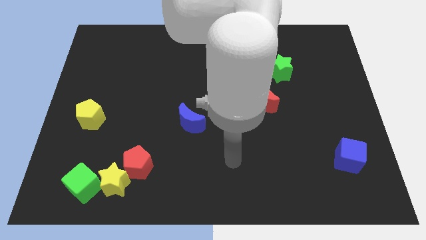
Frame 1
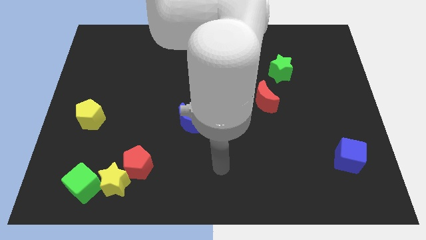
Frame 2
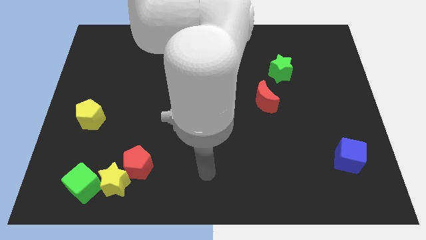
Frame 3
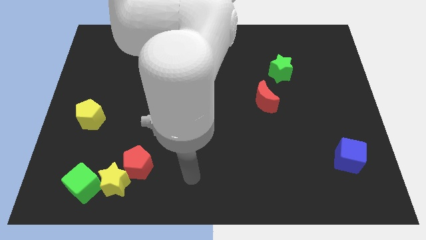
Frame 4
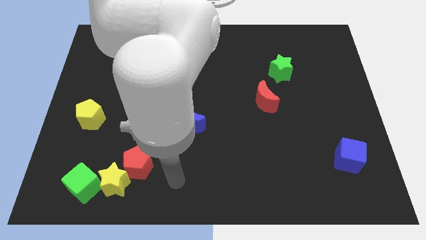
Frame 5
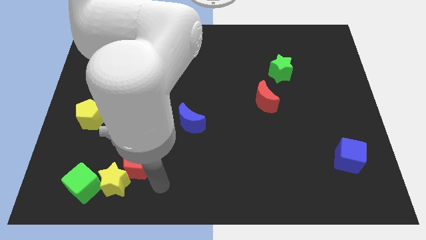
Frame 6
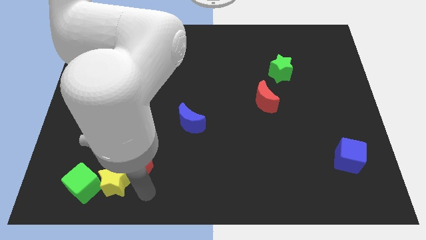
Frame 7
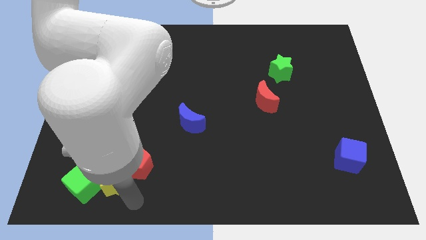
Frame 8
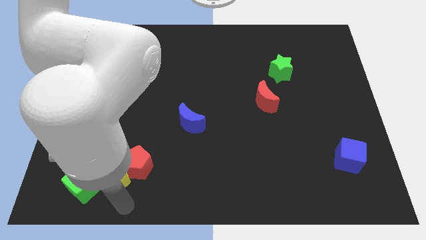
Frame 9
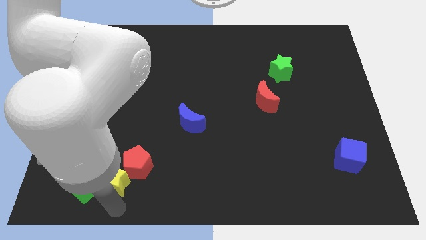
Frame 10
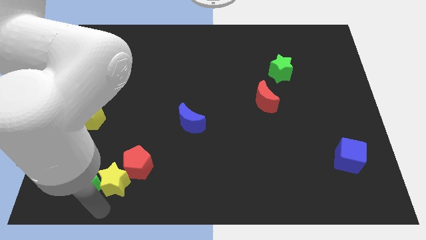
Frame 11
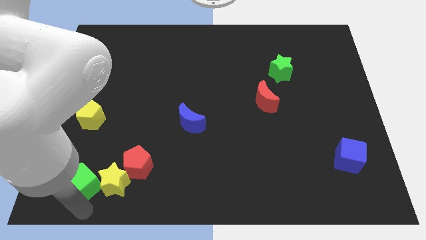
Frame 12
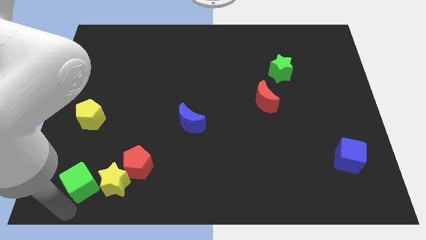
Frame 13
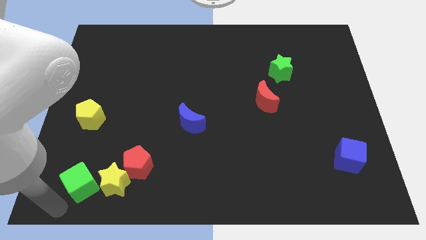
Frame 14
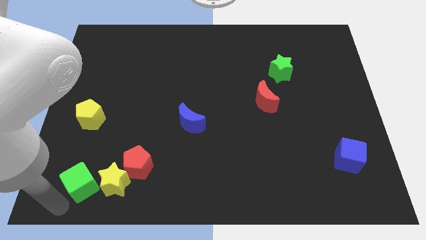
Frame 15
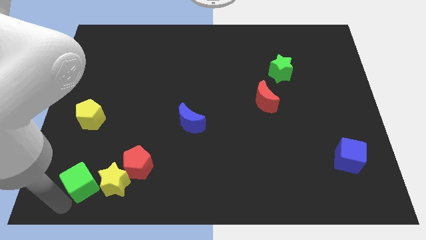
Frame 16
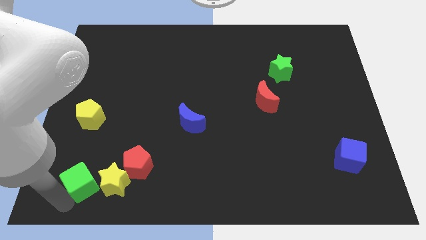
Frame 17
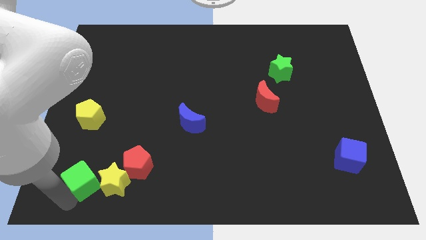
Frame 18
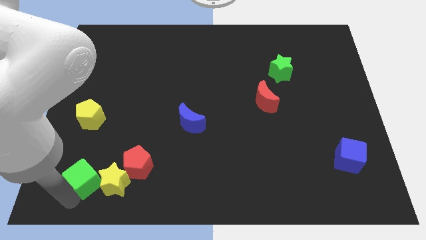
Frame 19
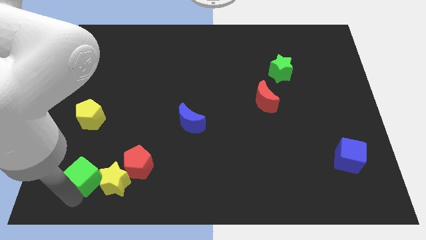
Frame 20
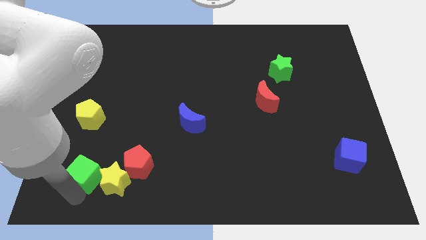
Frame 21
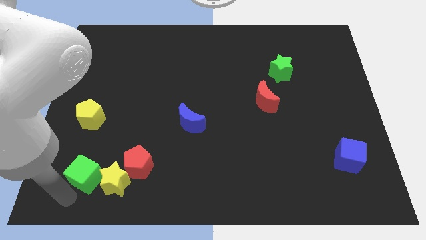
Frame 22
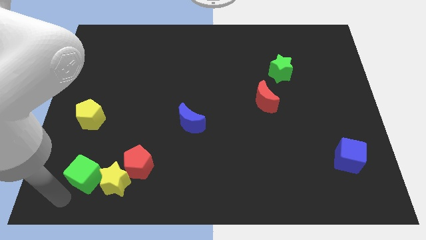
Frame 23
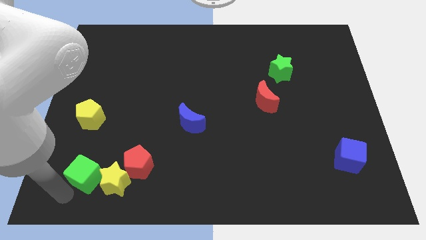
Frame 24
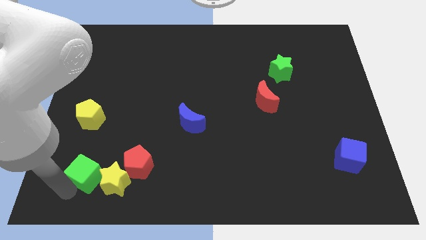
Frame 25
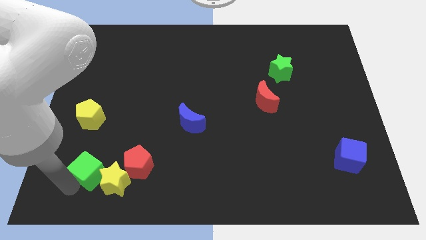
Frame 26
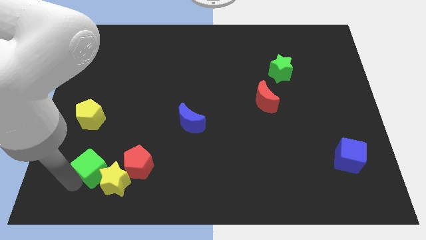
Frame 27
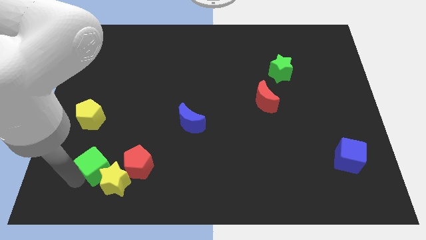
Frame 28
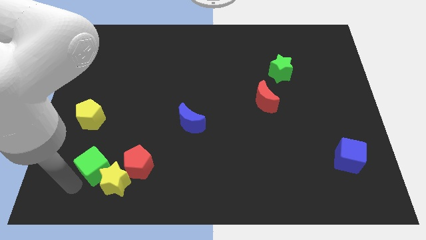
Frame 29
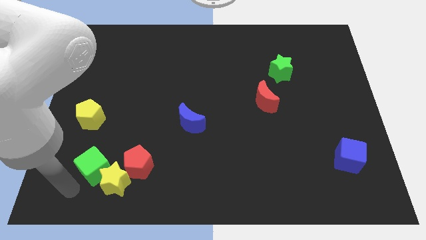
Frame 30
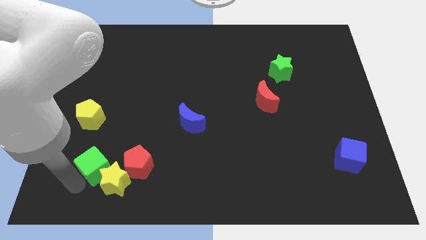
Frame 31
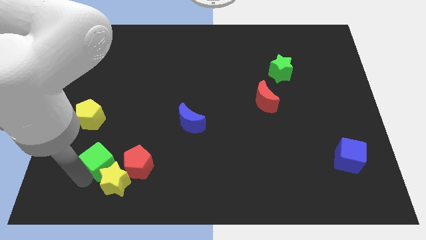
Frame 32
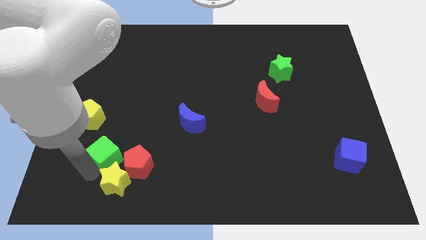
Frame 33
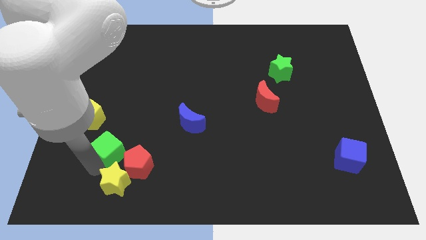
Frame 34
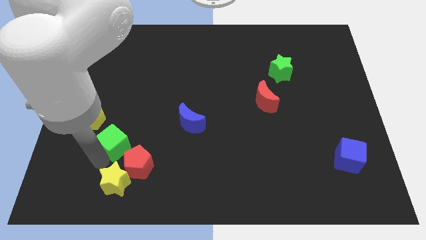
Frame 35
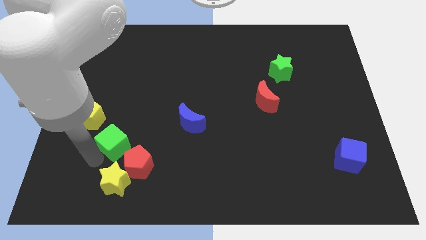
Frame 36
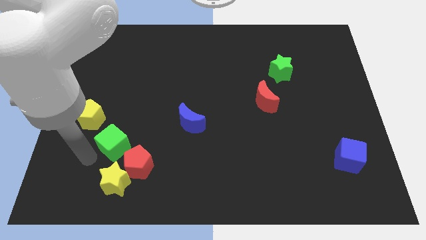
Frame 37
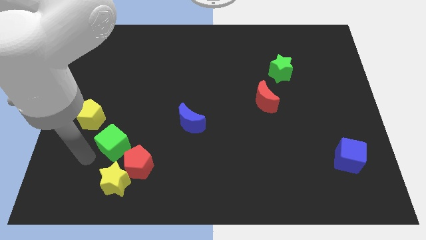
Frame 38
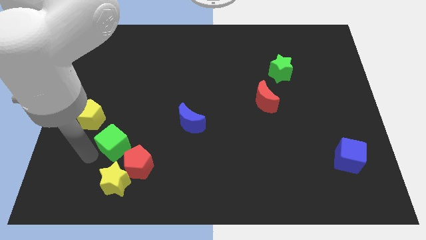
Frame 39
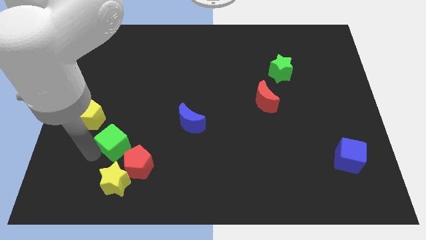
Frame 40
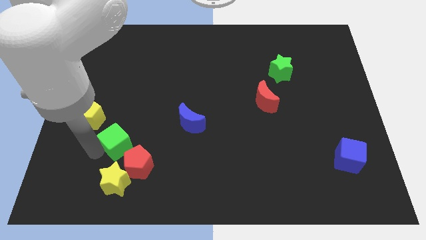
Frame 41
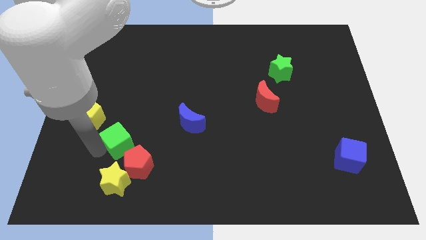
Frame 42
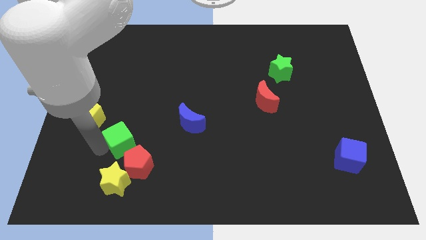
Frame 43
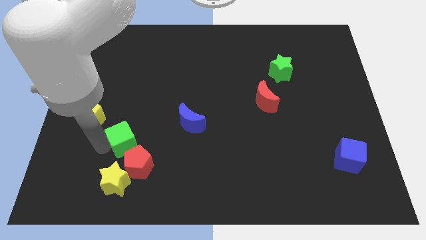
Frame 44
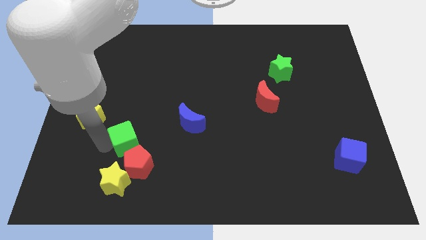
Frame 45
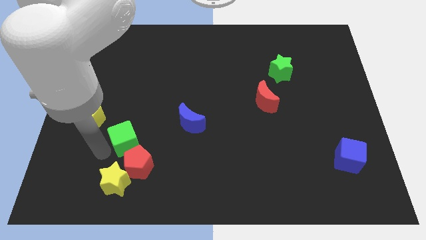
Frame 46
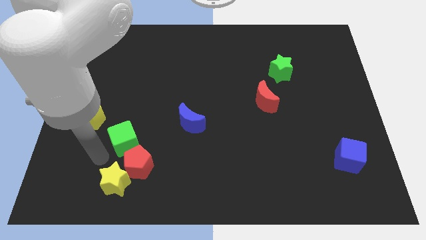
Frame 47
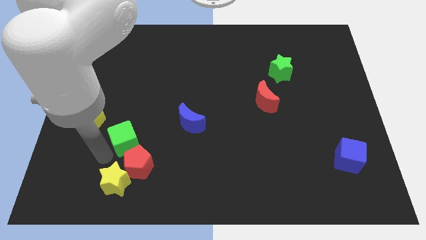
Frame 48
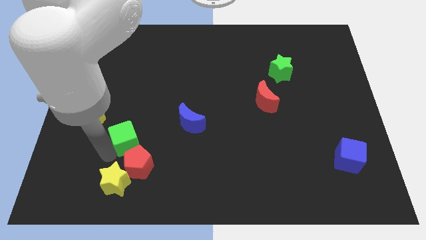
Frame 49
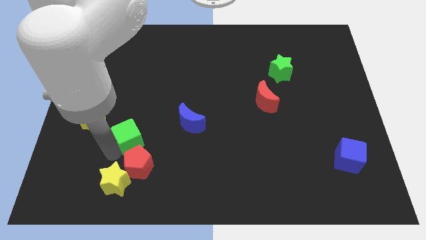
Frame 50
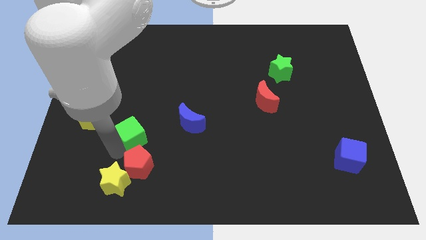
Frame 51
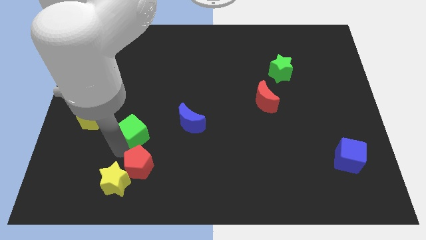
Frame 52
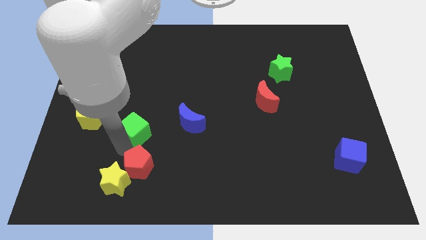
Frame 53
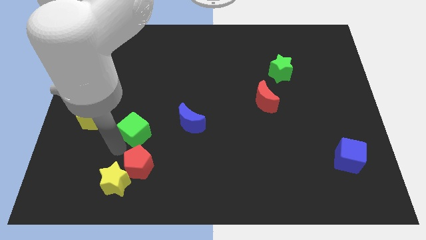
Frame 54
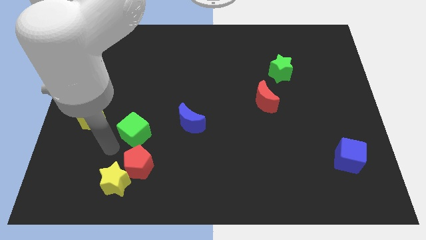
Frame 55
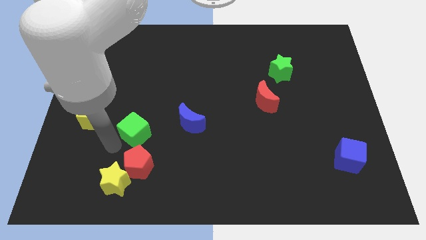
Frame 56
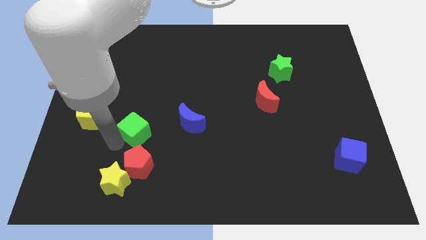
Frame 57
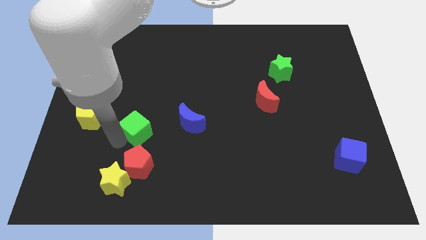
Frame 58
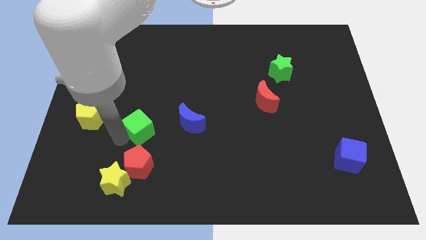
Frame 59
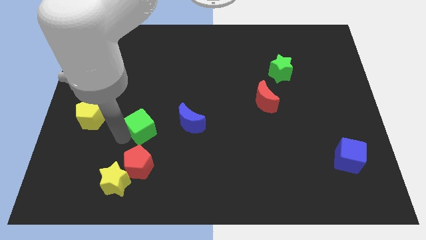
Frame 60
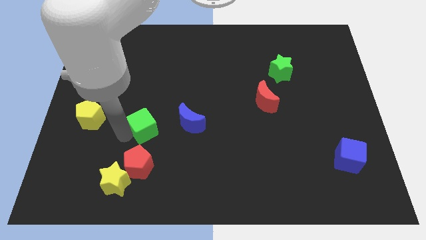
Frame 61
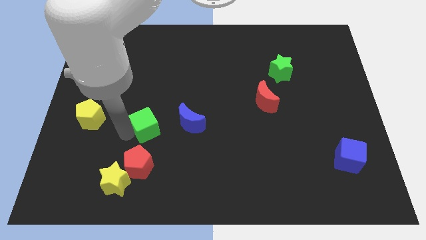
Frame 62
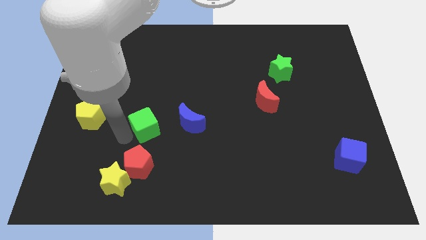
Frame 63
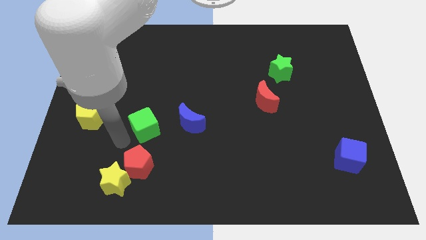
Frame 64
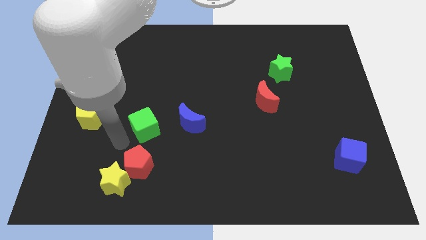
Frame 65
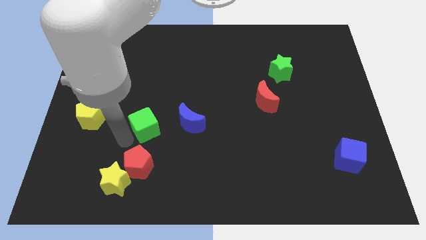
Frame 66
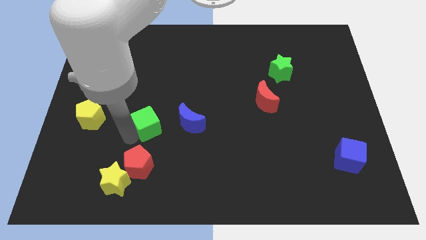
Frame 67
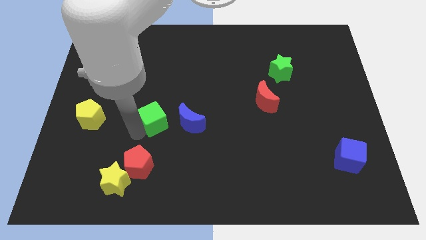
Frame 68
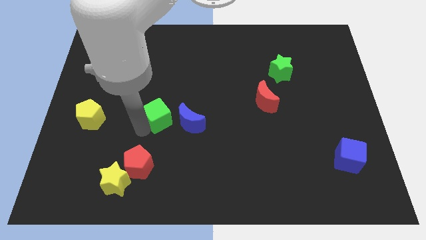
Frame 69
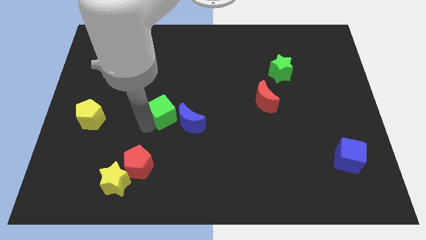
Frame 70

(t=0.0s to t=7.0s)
put the green cube to the center of the board
